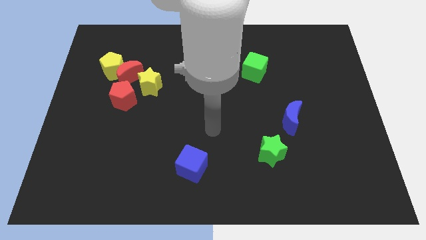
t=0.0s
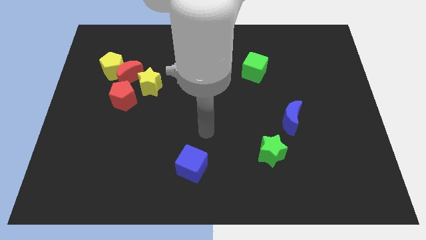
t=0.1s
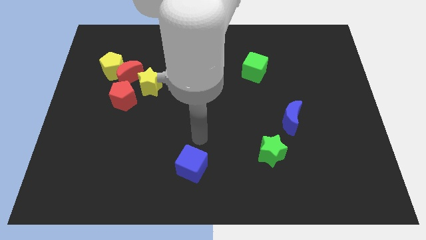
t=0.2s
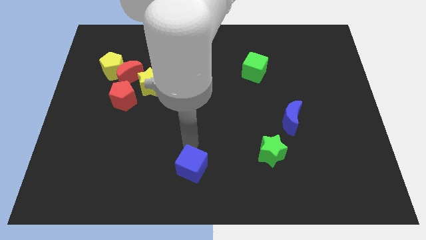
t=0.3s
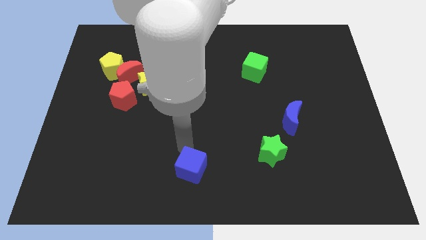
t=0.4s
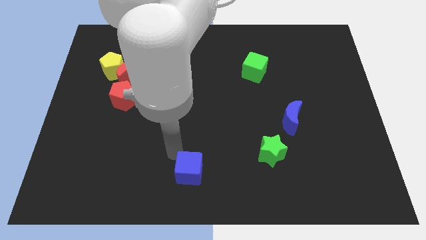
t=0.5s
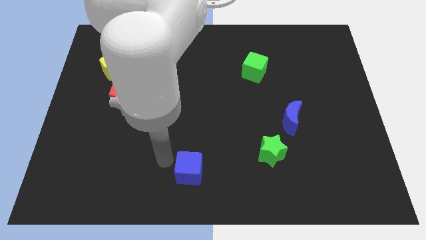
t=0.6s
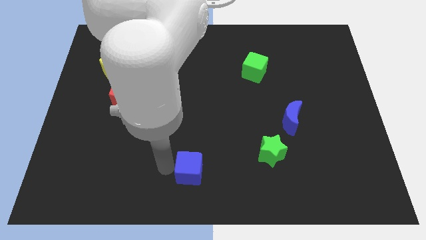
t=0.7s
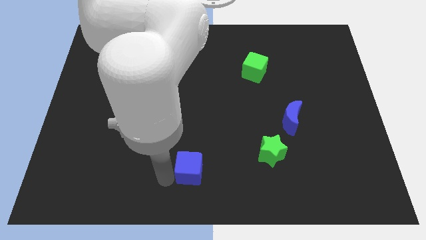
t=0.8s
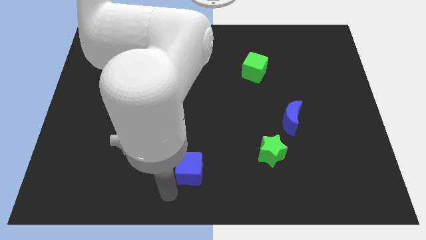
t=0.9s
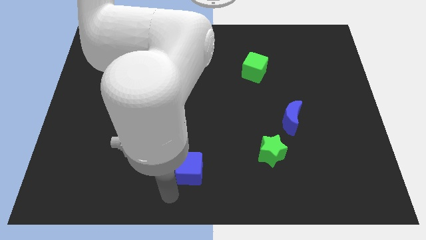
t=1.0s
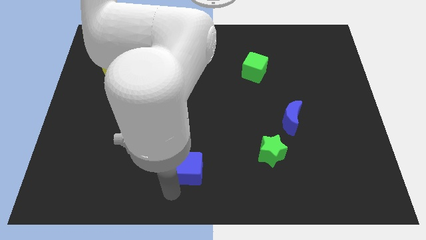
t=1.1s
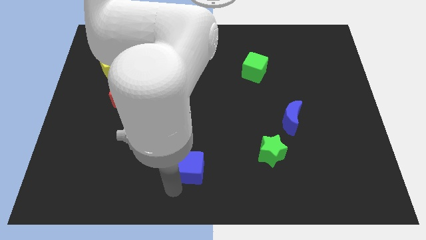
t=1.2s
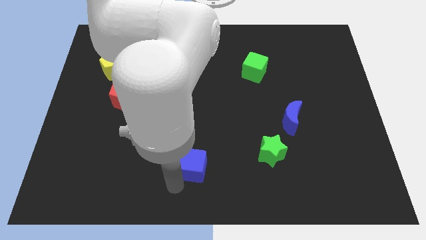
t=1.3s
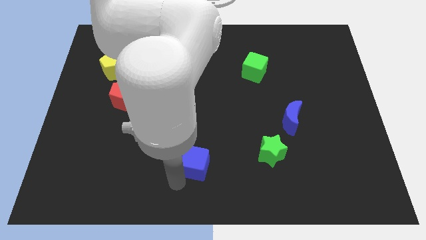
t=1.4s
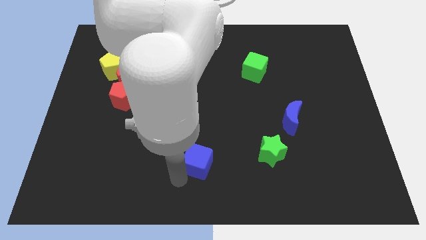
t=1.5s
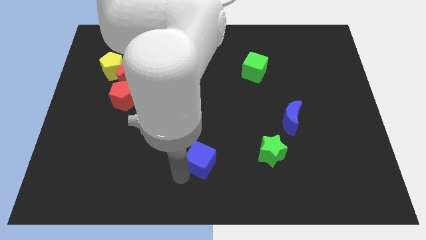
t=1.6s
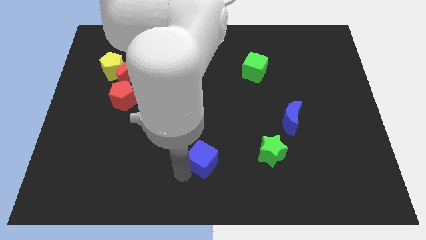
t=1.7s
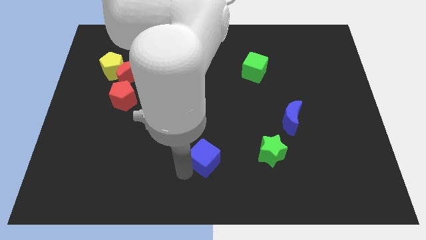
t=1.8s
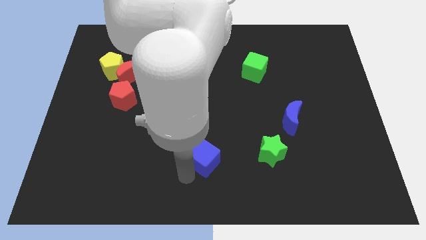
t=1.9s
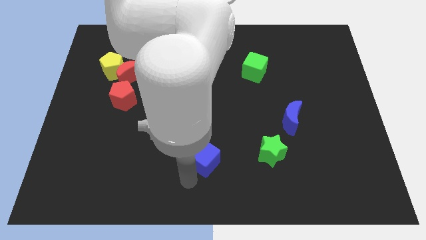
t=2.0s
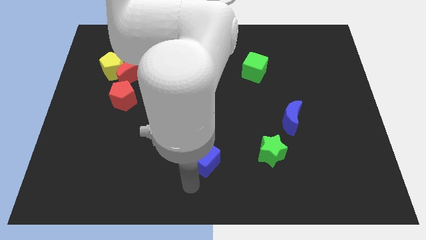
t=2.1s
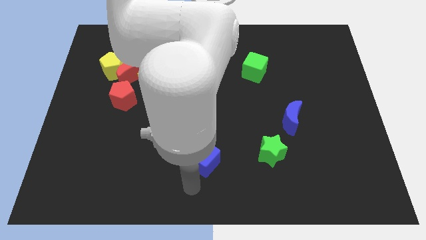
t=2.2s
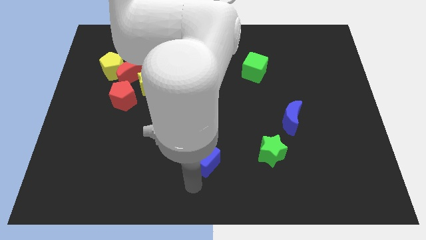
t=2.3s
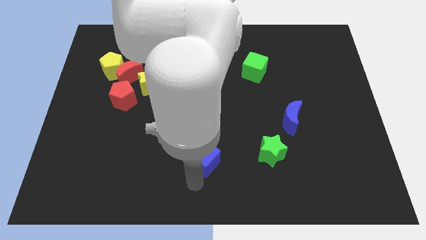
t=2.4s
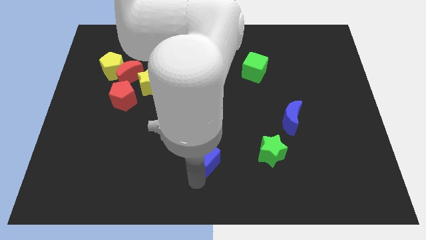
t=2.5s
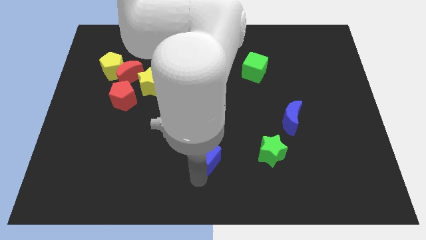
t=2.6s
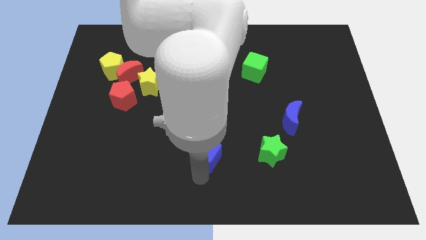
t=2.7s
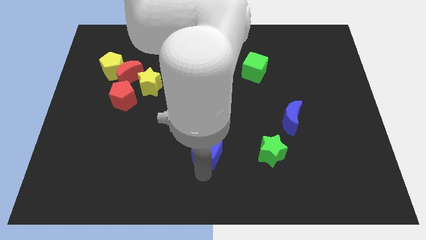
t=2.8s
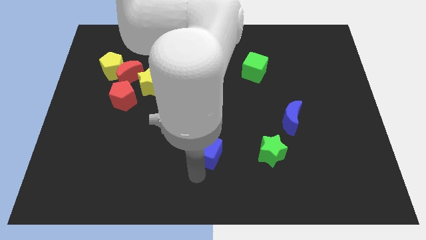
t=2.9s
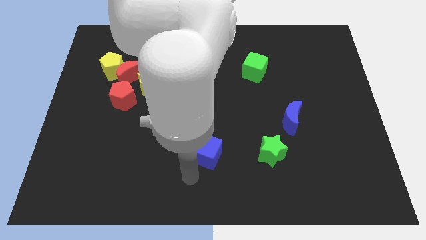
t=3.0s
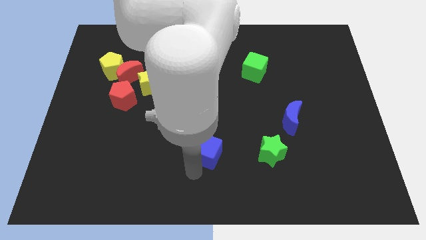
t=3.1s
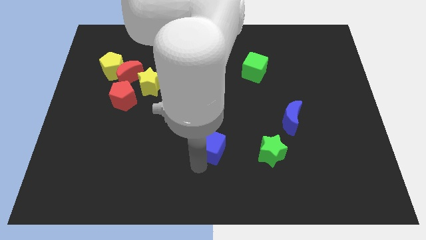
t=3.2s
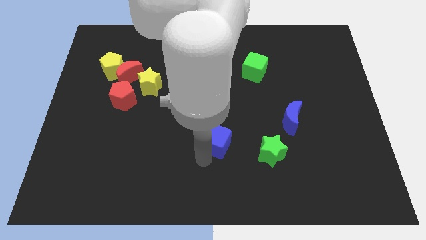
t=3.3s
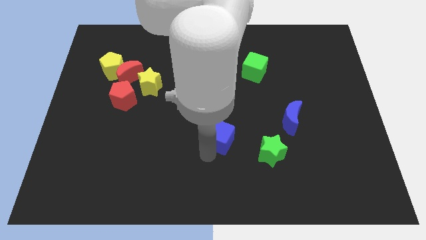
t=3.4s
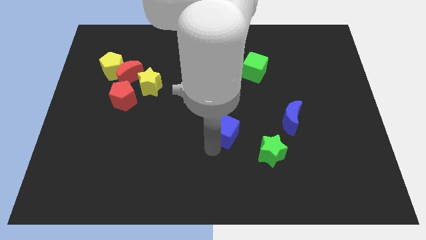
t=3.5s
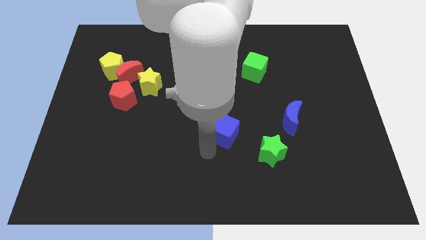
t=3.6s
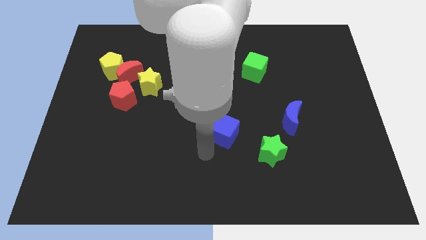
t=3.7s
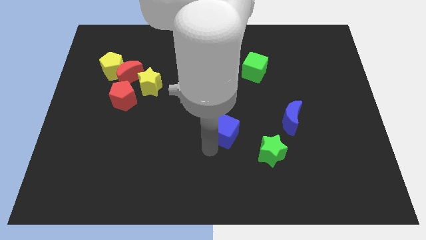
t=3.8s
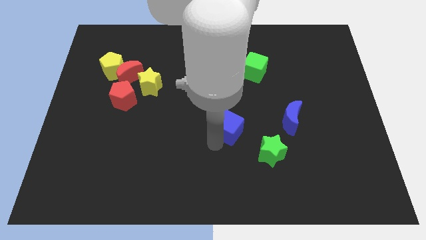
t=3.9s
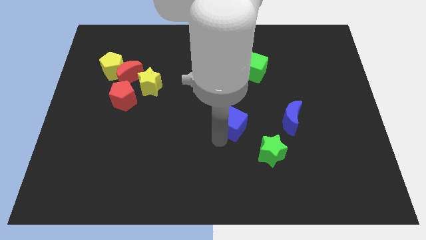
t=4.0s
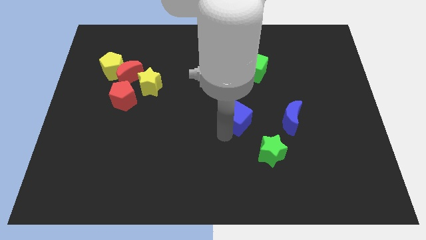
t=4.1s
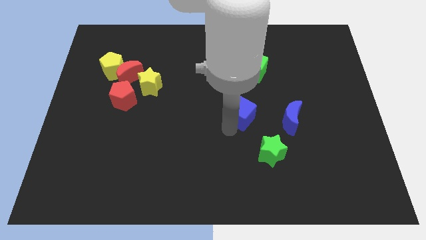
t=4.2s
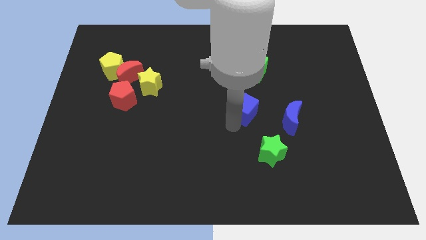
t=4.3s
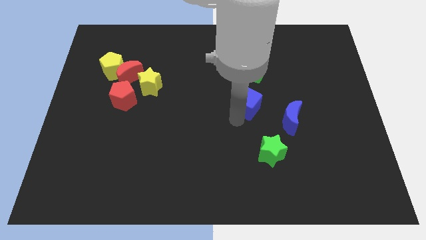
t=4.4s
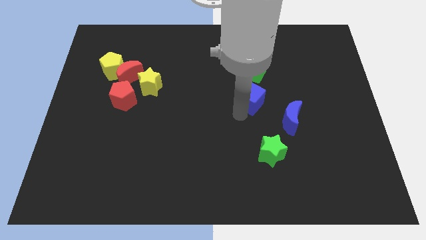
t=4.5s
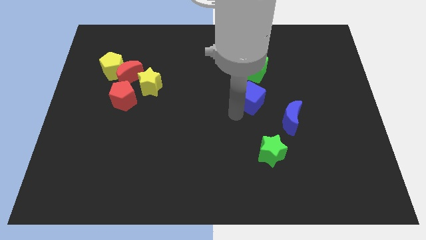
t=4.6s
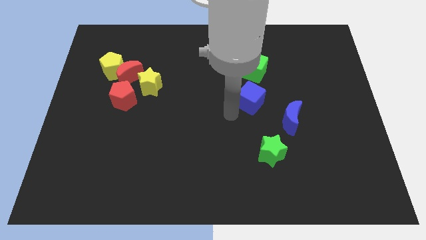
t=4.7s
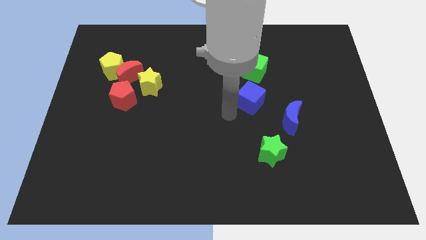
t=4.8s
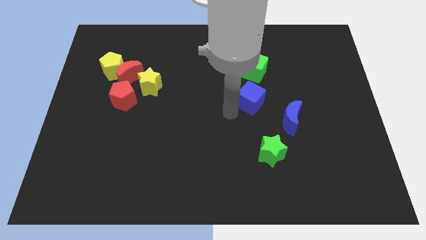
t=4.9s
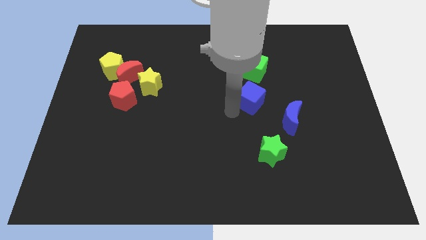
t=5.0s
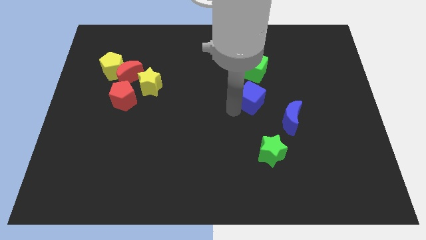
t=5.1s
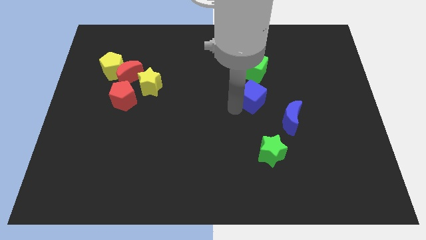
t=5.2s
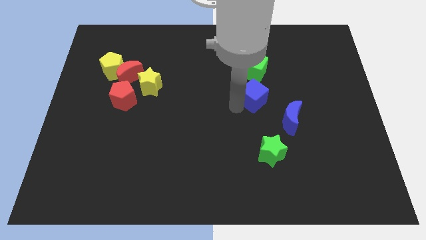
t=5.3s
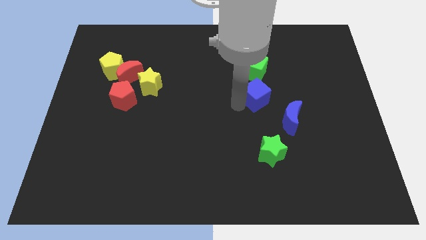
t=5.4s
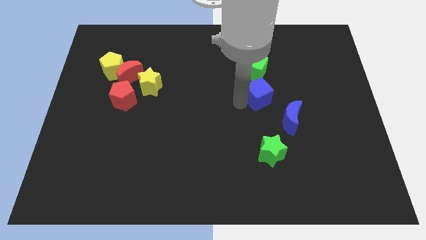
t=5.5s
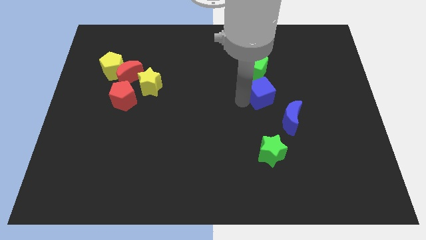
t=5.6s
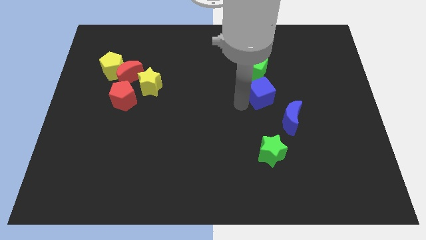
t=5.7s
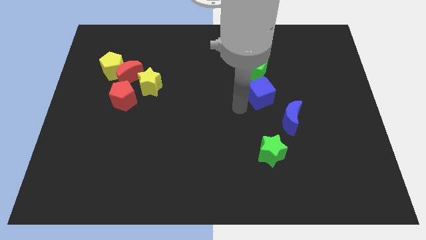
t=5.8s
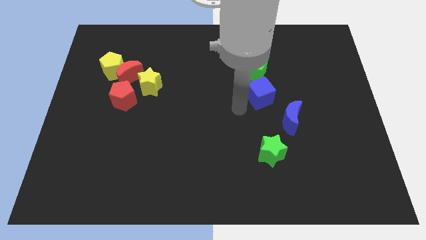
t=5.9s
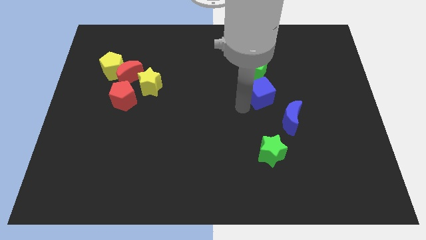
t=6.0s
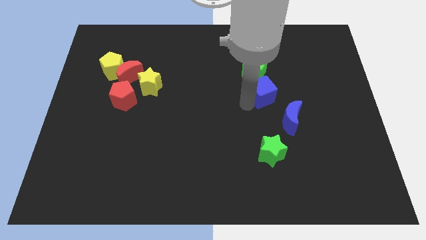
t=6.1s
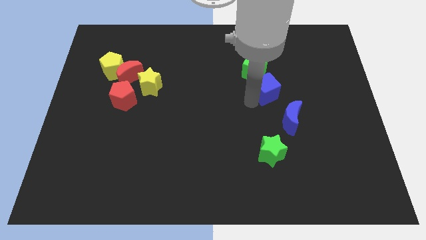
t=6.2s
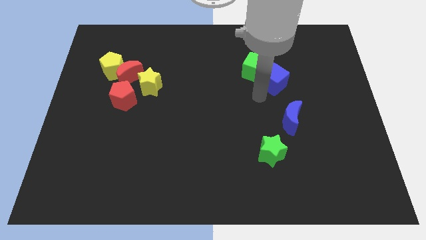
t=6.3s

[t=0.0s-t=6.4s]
slide the blue cube to the right side of the green cube

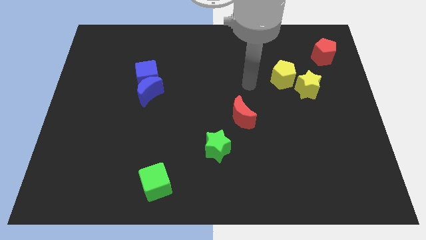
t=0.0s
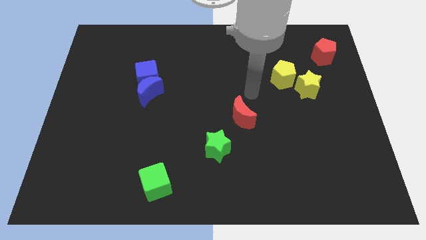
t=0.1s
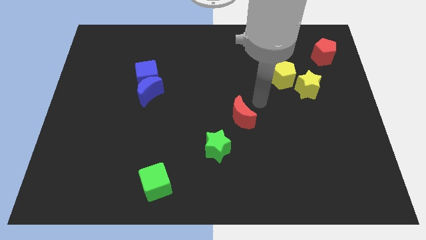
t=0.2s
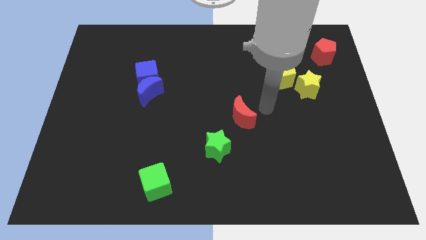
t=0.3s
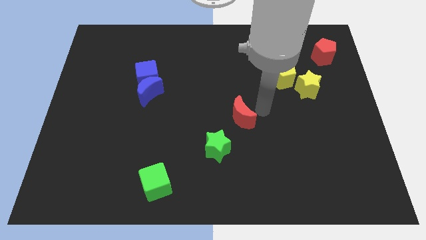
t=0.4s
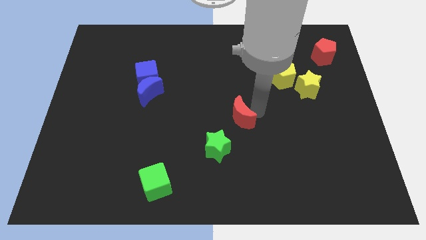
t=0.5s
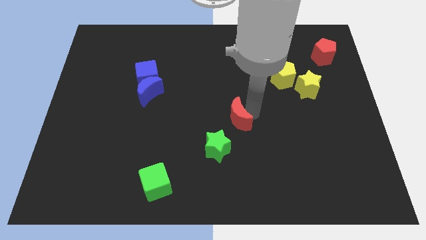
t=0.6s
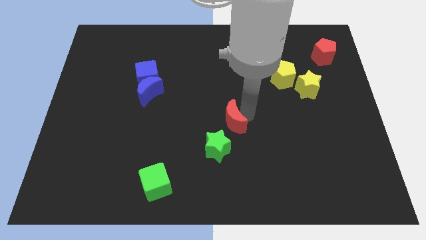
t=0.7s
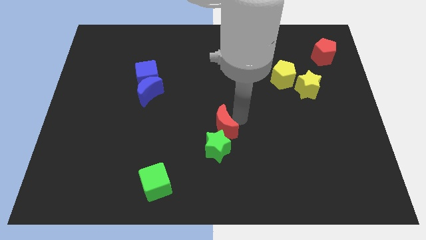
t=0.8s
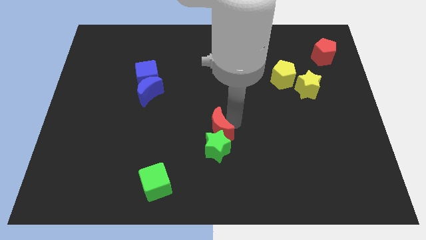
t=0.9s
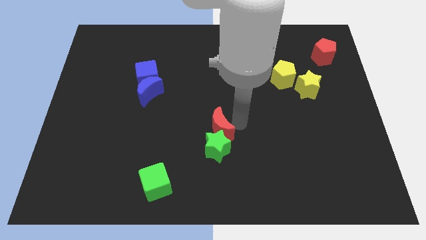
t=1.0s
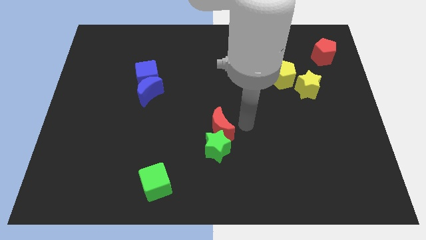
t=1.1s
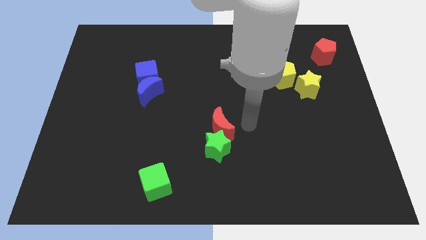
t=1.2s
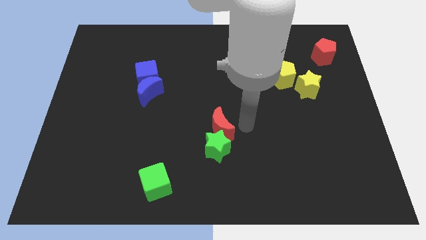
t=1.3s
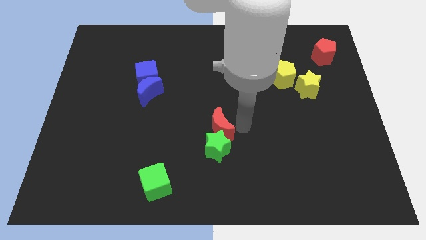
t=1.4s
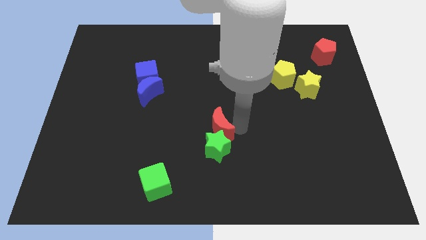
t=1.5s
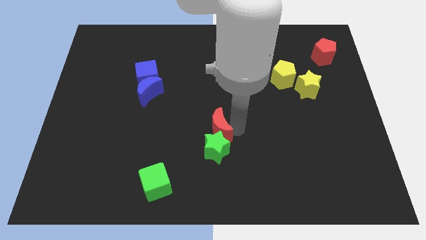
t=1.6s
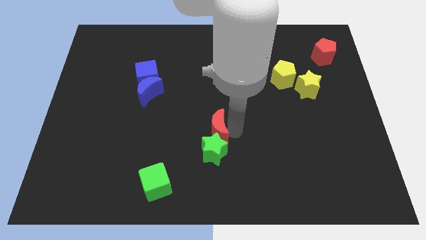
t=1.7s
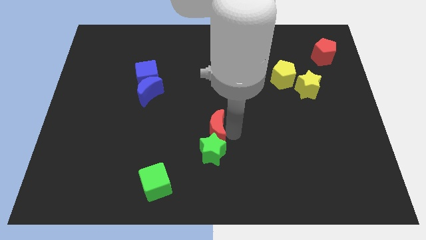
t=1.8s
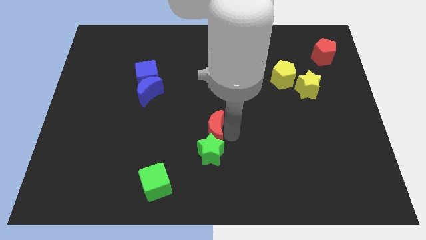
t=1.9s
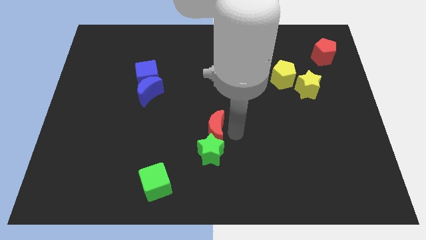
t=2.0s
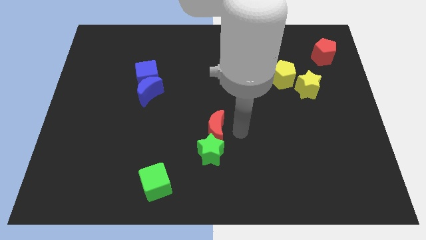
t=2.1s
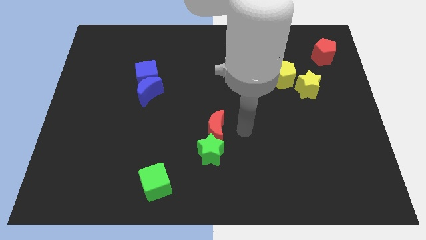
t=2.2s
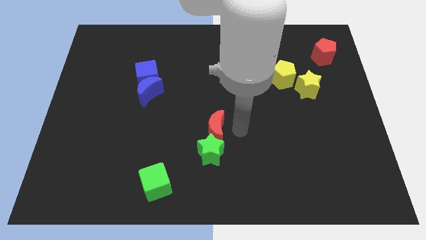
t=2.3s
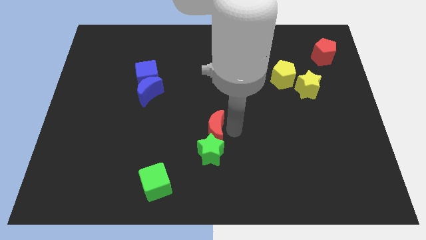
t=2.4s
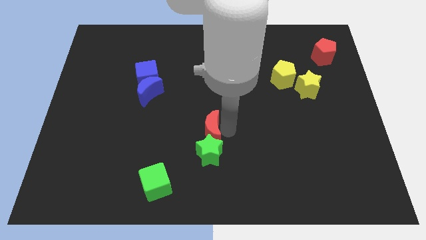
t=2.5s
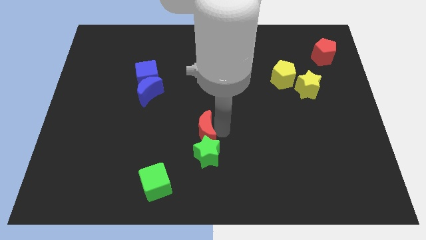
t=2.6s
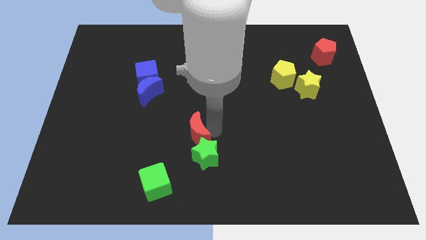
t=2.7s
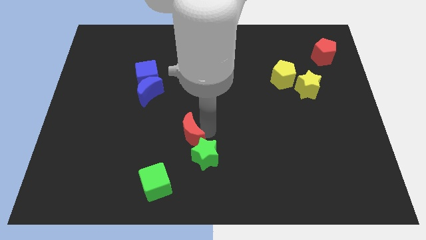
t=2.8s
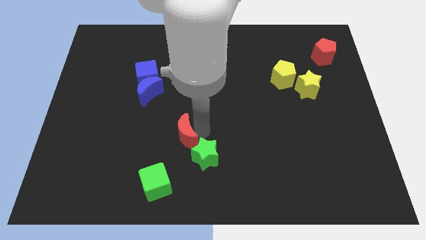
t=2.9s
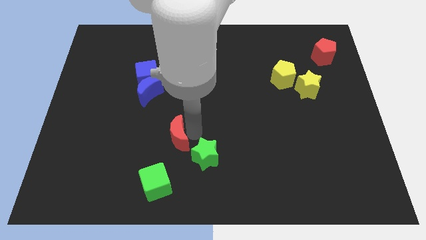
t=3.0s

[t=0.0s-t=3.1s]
slide the red moon to the top of the green cube
